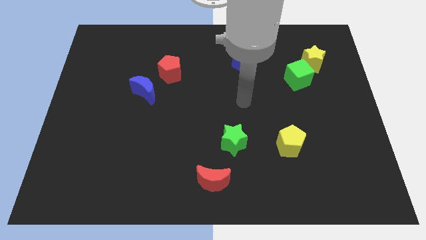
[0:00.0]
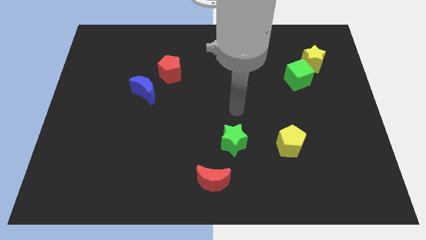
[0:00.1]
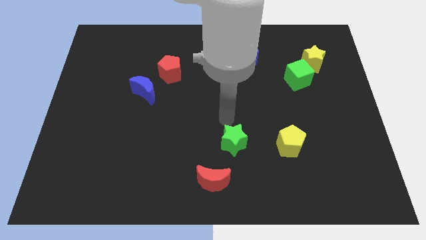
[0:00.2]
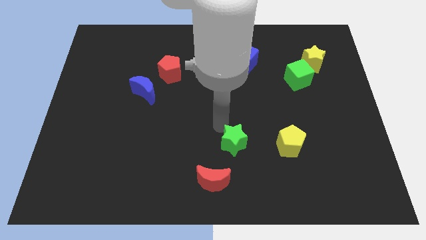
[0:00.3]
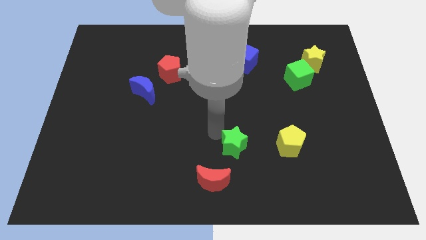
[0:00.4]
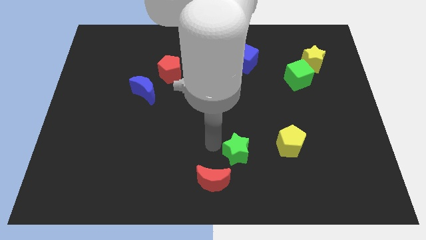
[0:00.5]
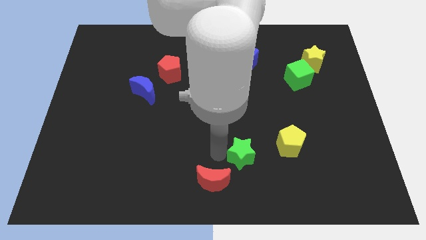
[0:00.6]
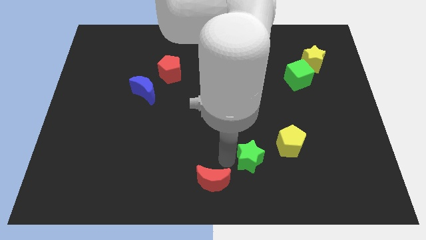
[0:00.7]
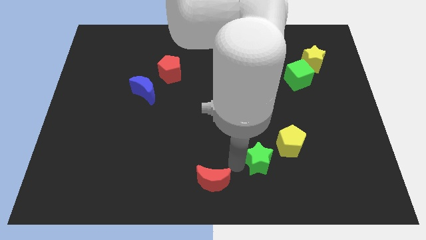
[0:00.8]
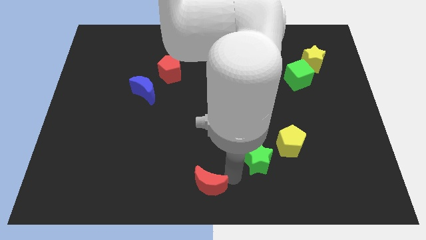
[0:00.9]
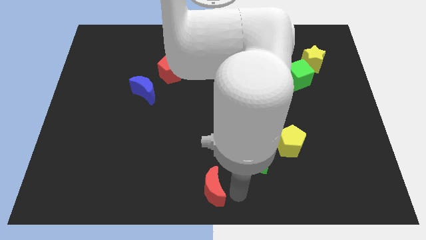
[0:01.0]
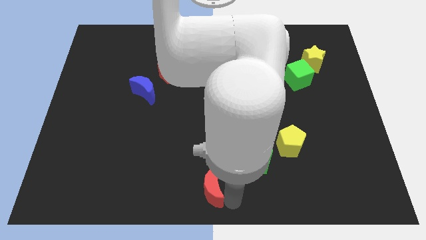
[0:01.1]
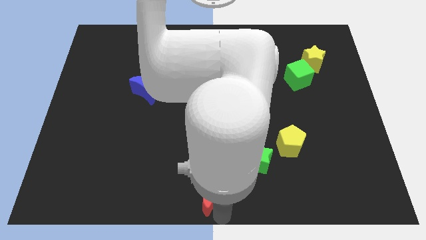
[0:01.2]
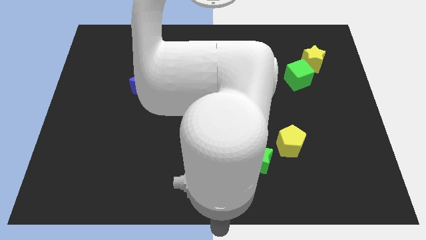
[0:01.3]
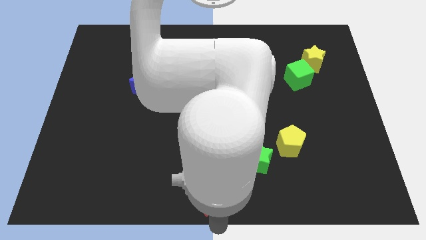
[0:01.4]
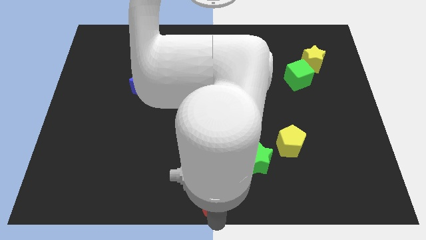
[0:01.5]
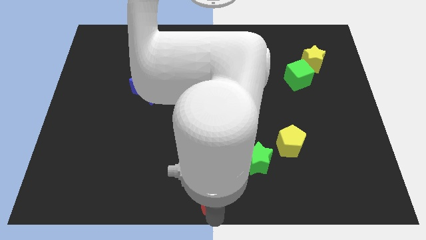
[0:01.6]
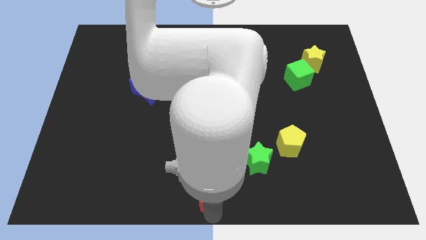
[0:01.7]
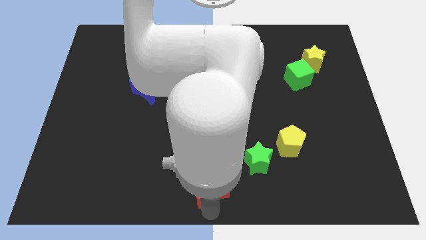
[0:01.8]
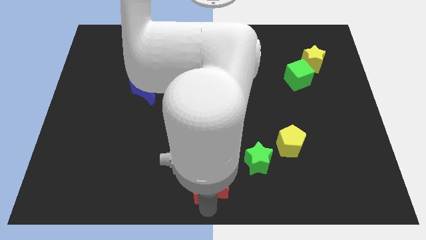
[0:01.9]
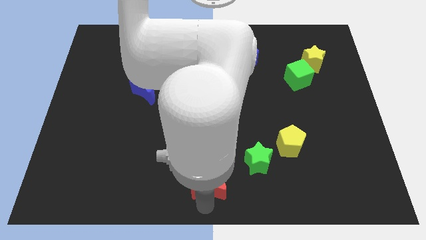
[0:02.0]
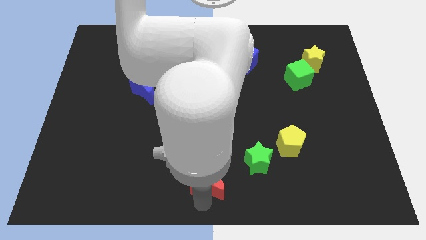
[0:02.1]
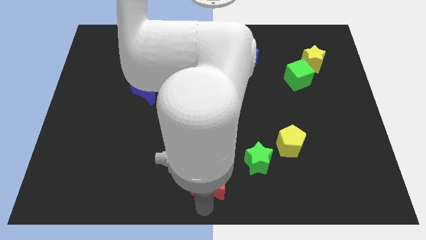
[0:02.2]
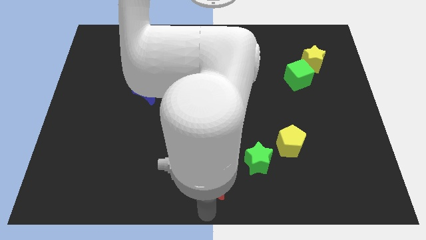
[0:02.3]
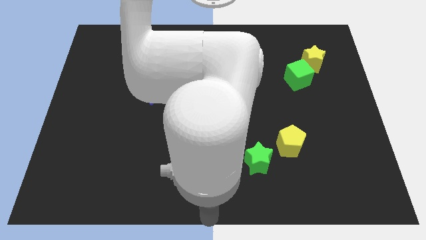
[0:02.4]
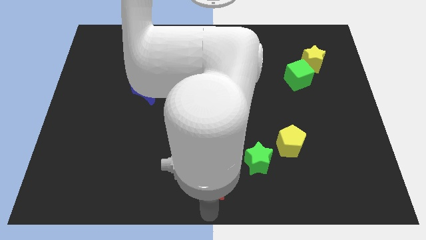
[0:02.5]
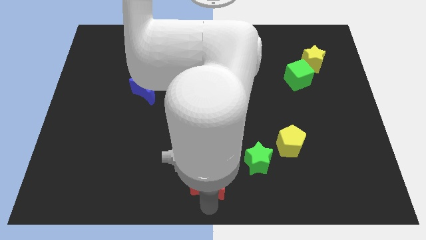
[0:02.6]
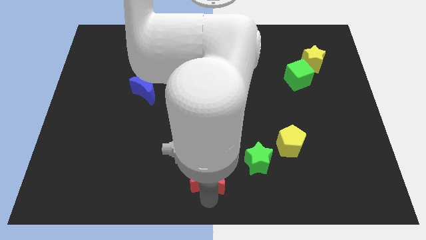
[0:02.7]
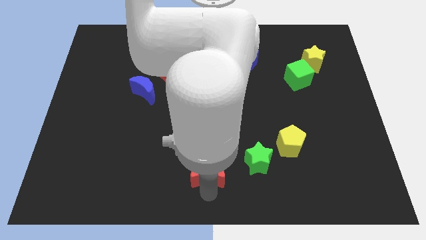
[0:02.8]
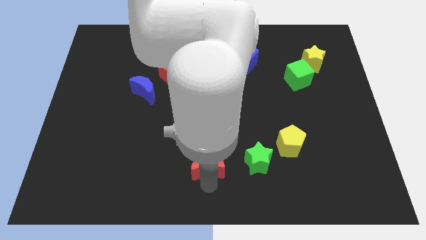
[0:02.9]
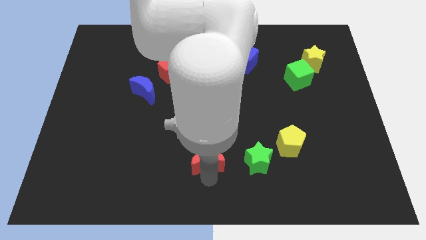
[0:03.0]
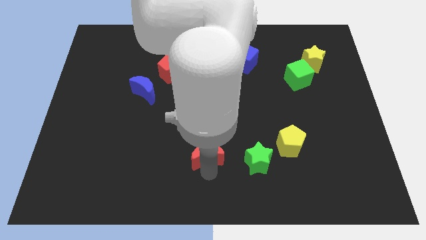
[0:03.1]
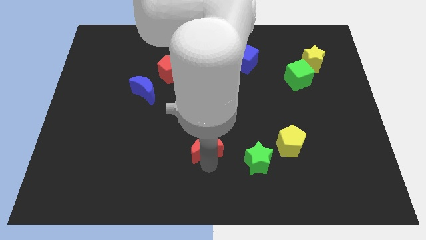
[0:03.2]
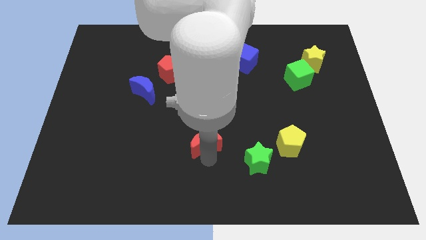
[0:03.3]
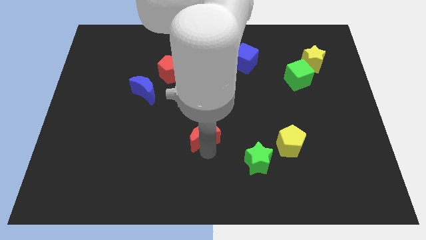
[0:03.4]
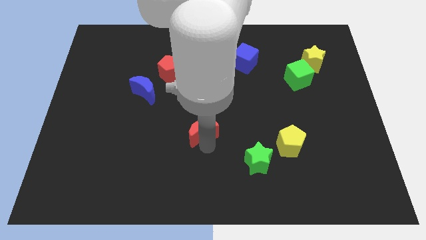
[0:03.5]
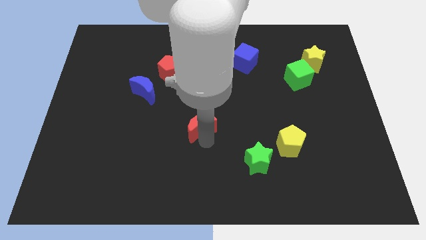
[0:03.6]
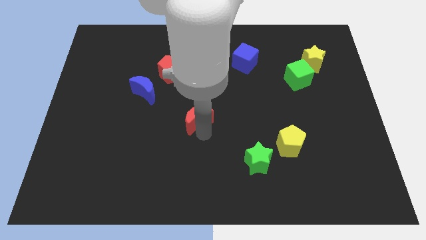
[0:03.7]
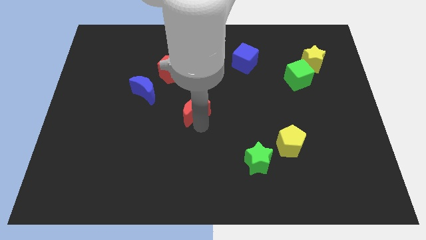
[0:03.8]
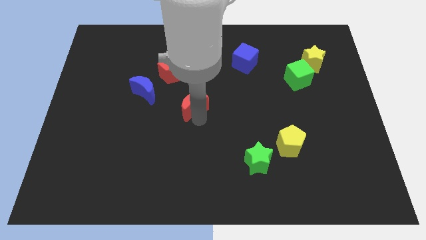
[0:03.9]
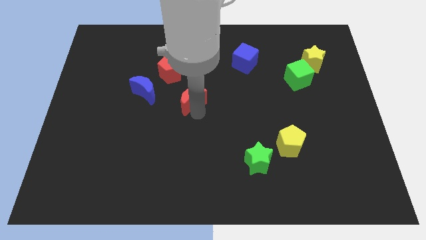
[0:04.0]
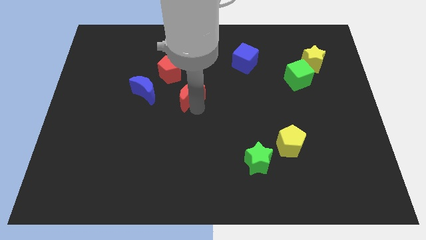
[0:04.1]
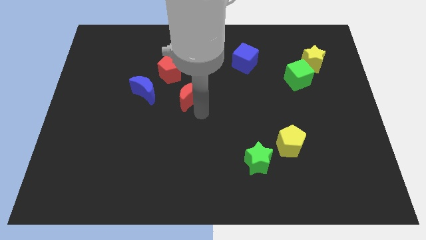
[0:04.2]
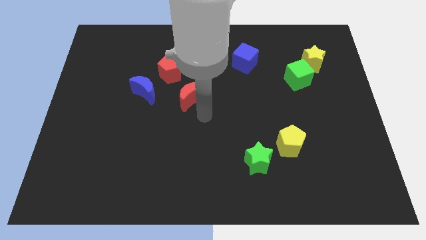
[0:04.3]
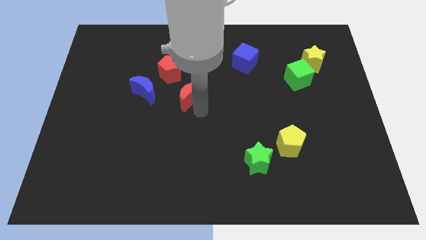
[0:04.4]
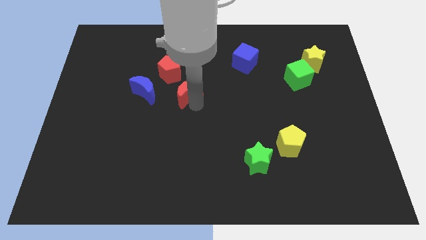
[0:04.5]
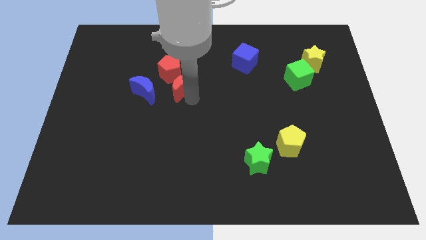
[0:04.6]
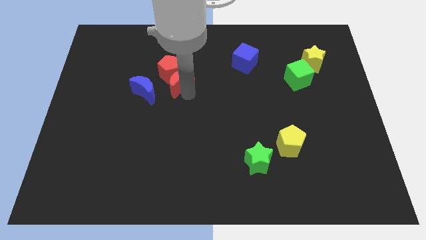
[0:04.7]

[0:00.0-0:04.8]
move the red moon next to the red pentagon
